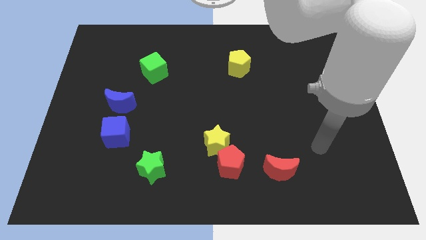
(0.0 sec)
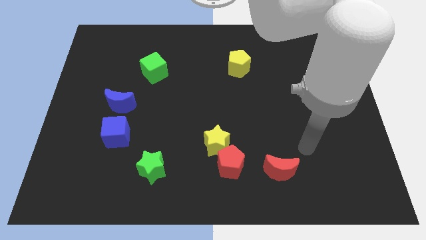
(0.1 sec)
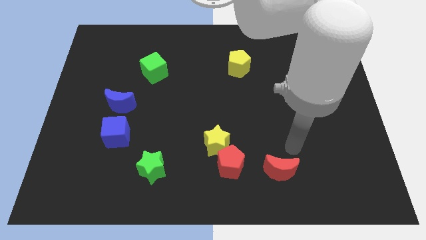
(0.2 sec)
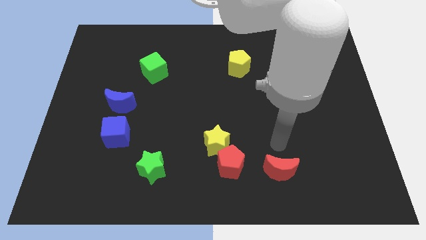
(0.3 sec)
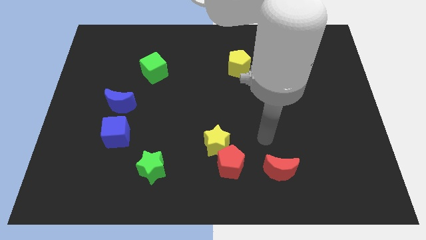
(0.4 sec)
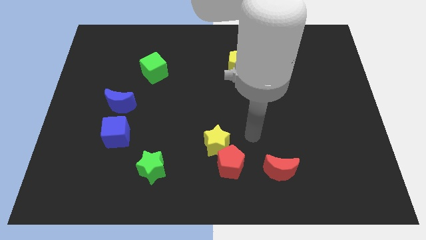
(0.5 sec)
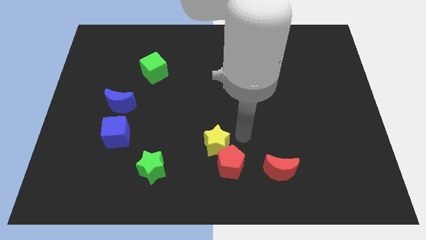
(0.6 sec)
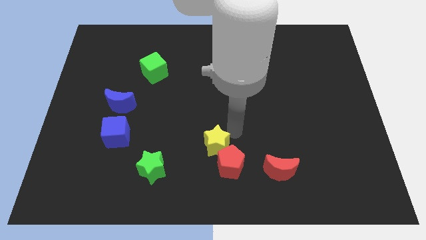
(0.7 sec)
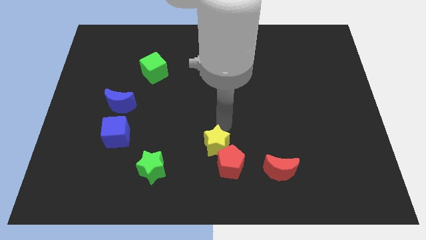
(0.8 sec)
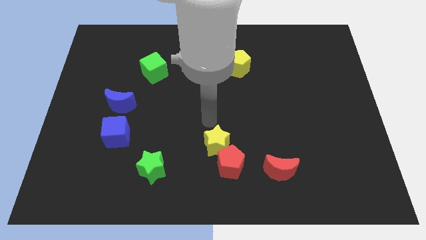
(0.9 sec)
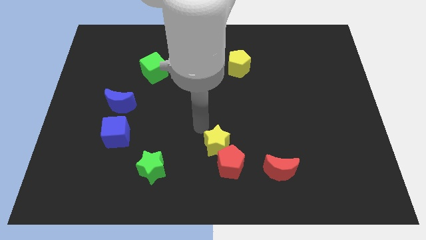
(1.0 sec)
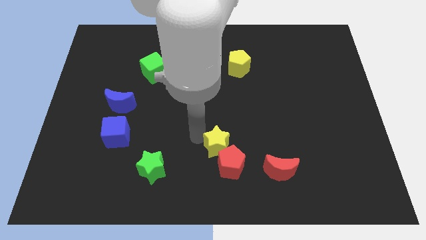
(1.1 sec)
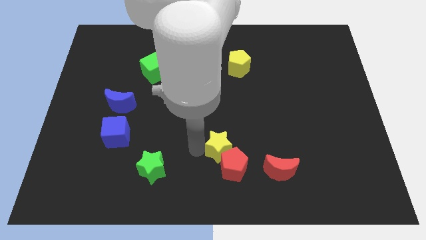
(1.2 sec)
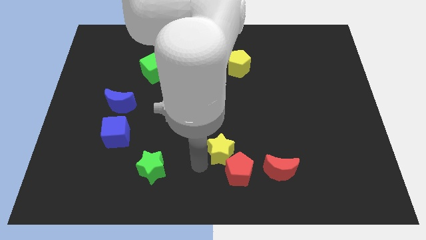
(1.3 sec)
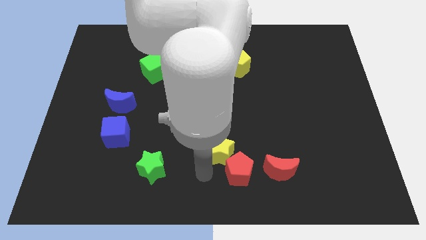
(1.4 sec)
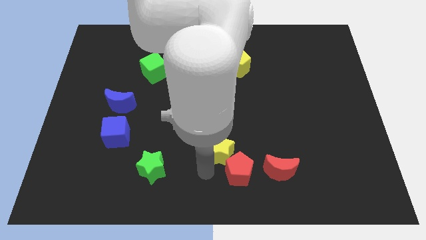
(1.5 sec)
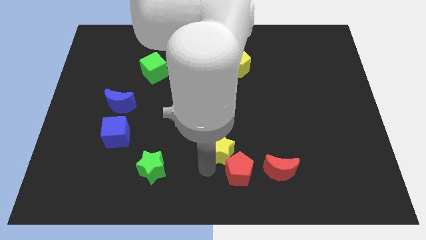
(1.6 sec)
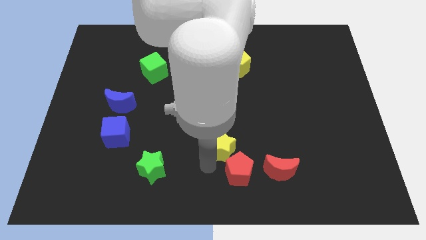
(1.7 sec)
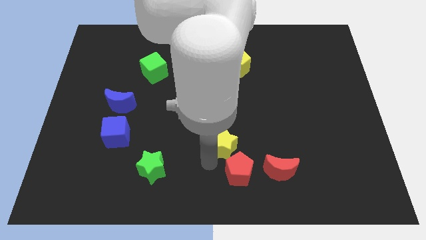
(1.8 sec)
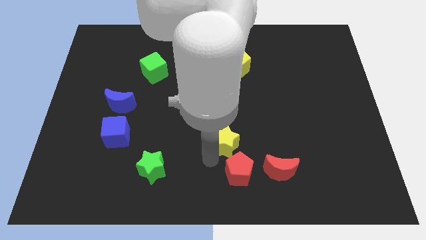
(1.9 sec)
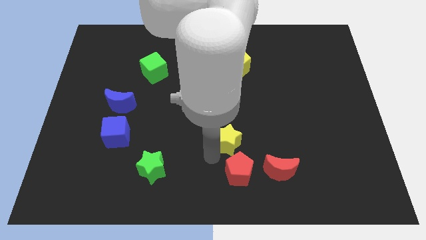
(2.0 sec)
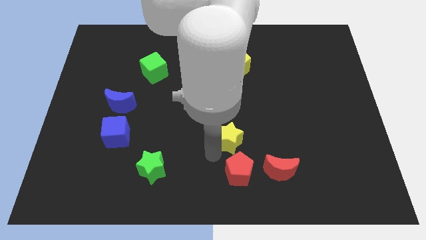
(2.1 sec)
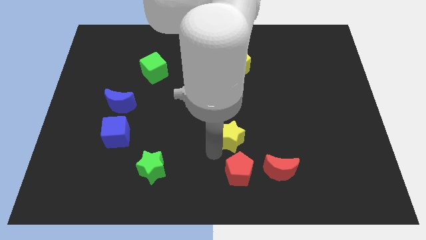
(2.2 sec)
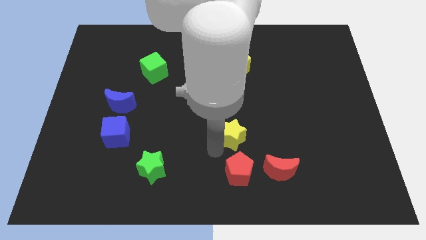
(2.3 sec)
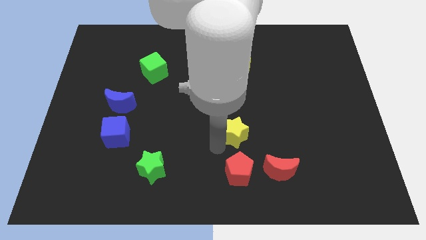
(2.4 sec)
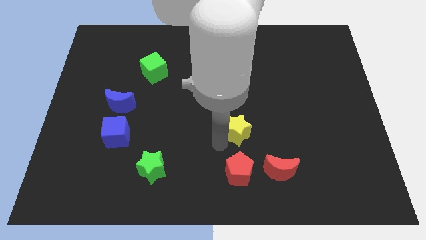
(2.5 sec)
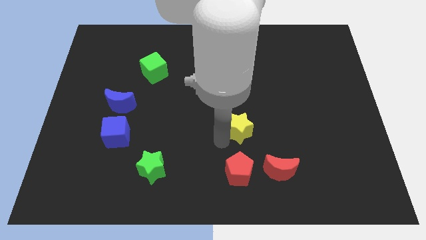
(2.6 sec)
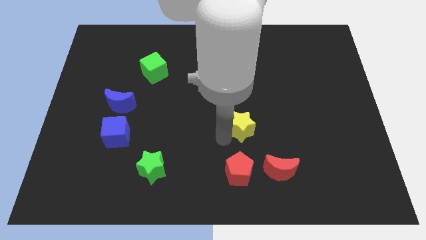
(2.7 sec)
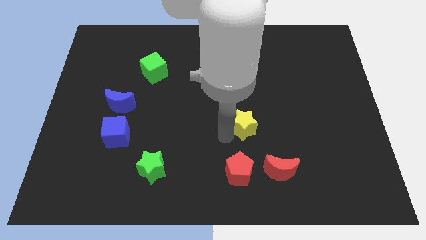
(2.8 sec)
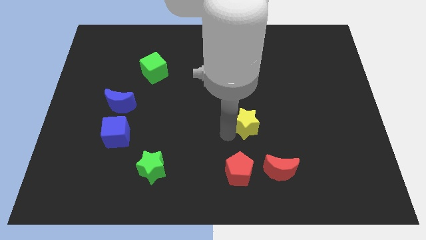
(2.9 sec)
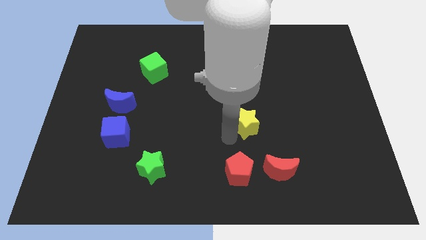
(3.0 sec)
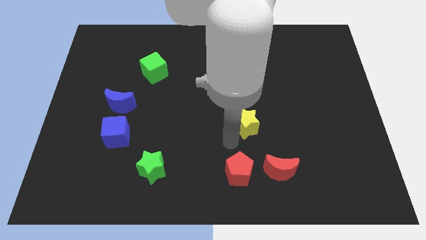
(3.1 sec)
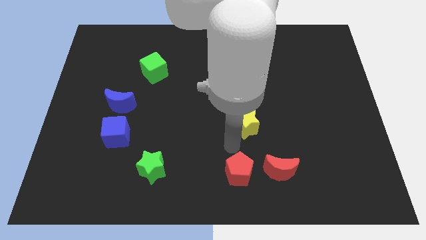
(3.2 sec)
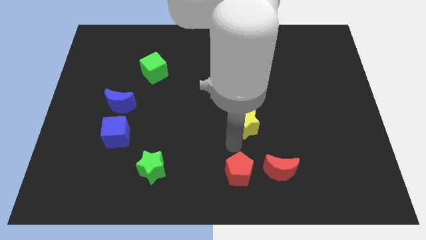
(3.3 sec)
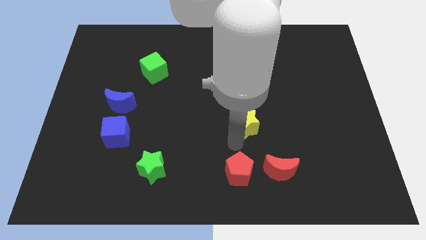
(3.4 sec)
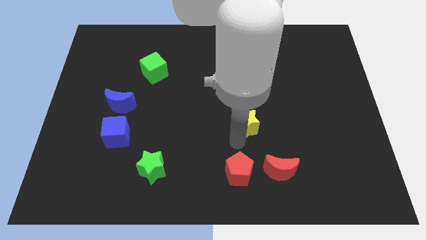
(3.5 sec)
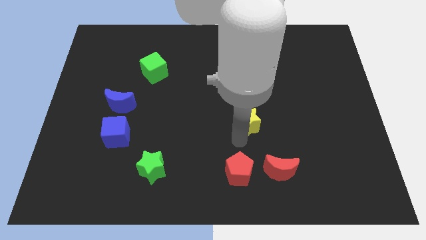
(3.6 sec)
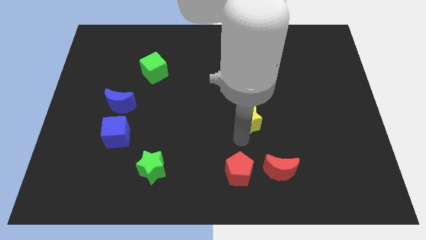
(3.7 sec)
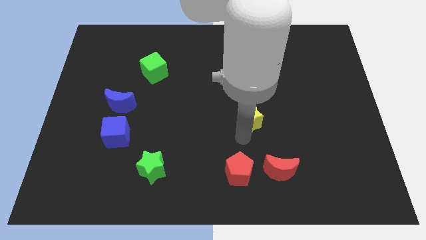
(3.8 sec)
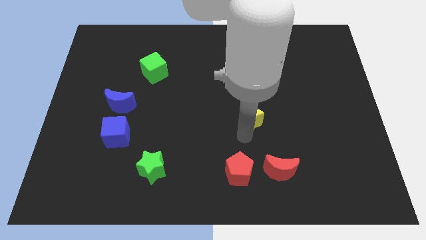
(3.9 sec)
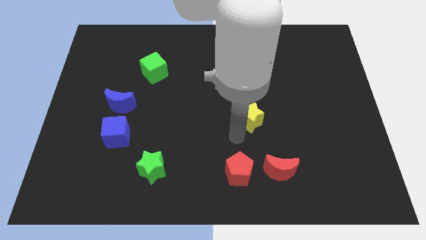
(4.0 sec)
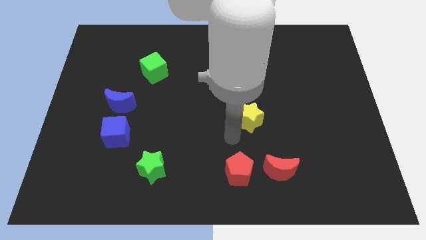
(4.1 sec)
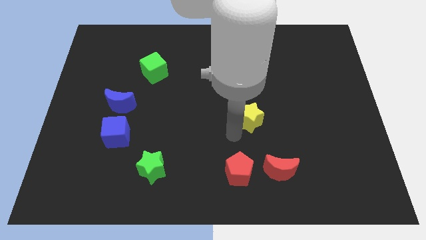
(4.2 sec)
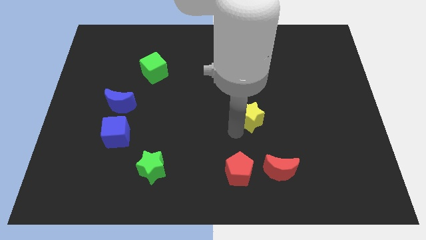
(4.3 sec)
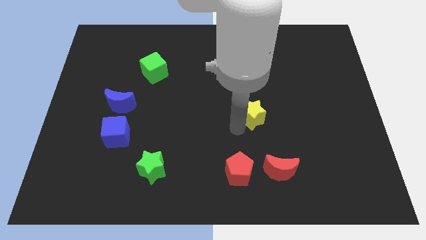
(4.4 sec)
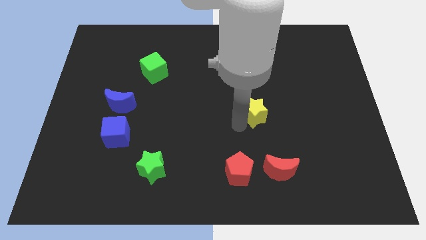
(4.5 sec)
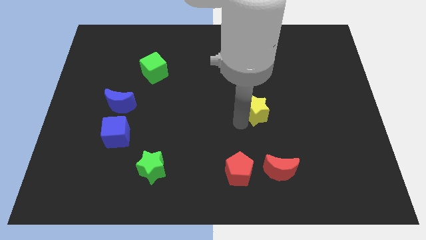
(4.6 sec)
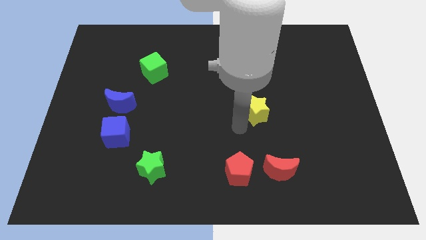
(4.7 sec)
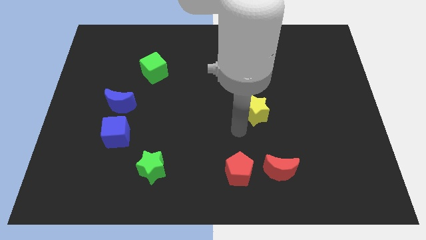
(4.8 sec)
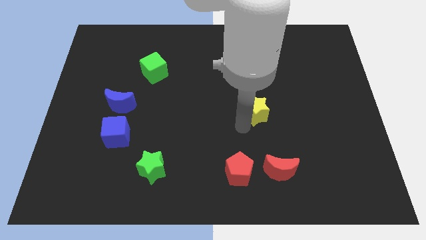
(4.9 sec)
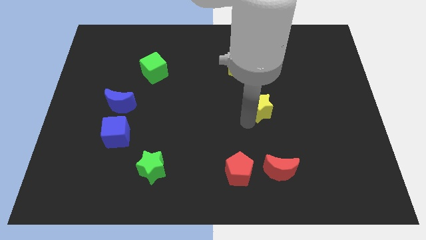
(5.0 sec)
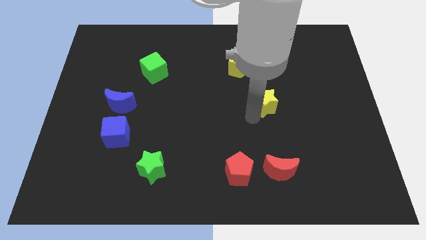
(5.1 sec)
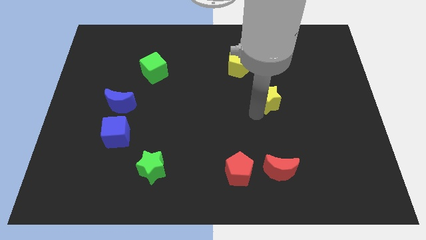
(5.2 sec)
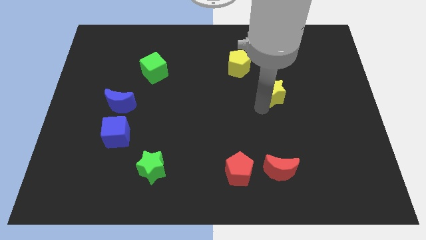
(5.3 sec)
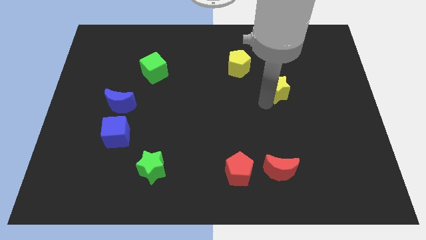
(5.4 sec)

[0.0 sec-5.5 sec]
slide the yellow star up and right diagonally

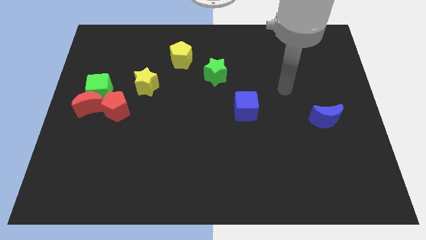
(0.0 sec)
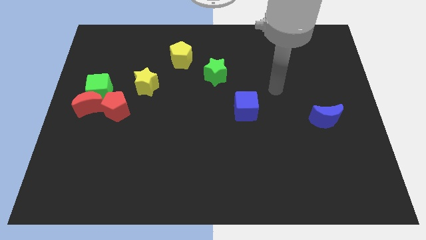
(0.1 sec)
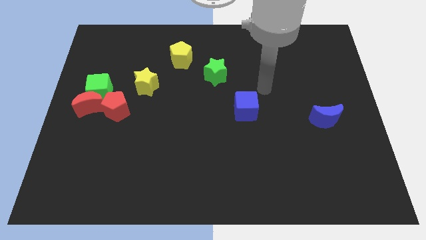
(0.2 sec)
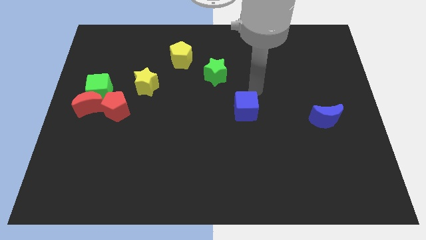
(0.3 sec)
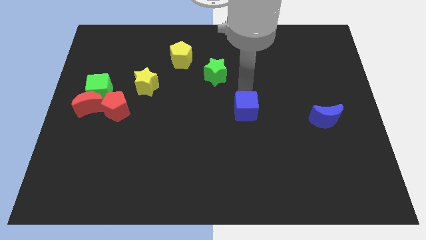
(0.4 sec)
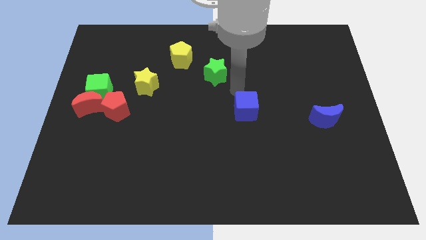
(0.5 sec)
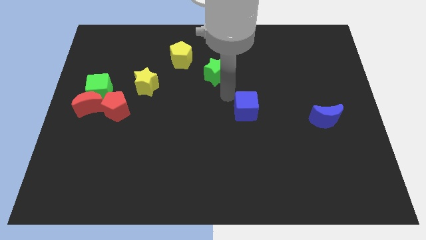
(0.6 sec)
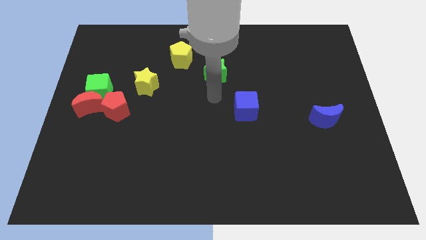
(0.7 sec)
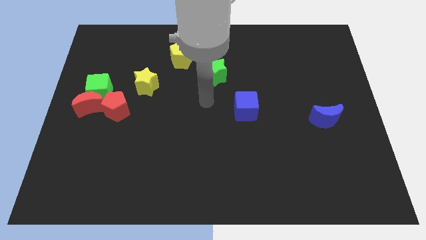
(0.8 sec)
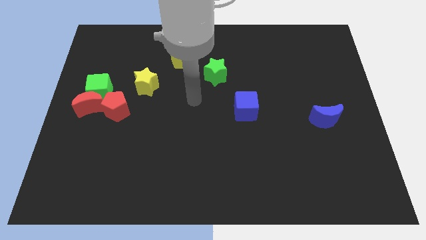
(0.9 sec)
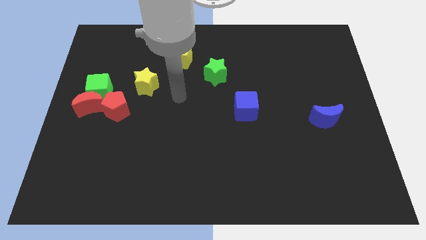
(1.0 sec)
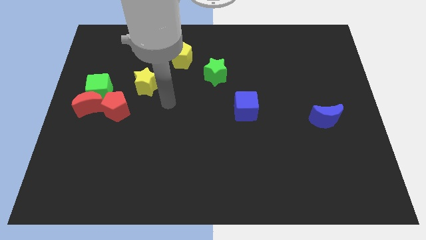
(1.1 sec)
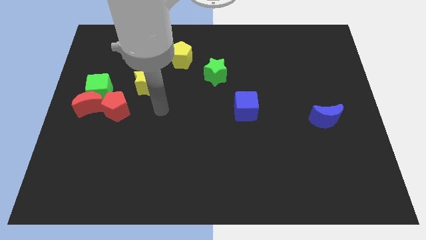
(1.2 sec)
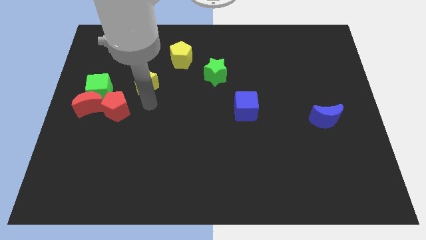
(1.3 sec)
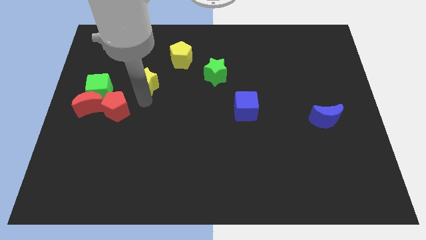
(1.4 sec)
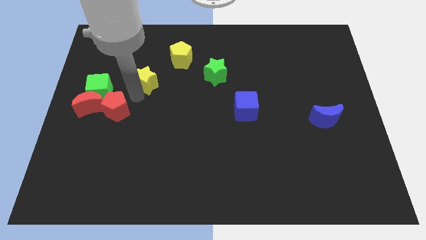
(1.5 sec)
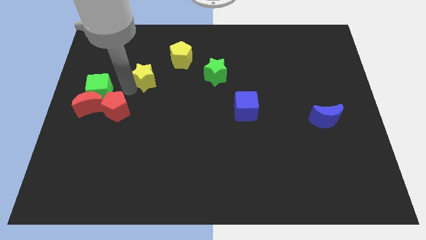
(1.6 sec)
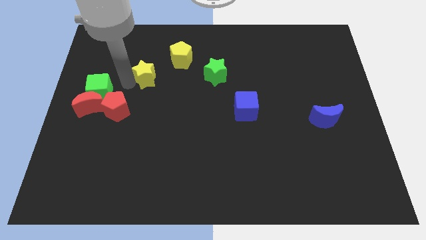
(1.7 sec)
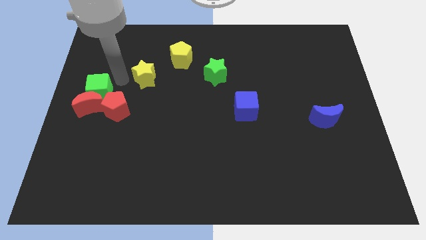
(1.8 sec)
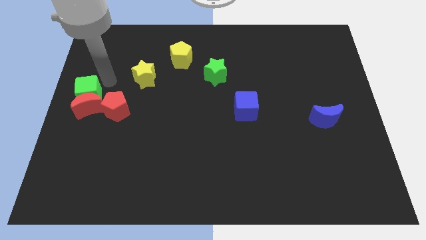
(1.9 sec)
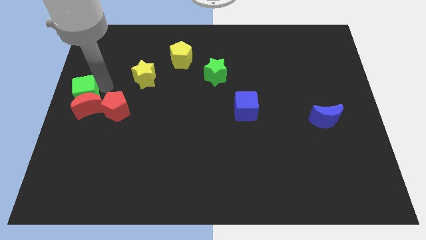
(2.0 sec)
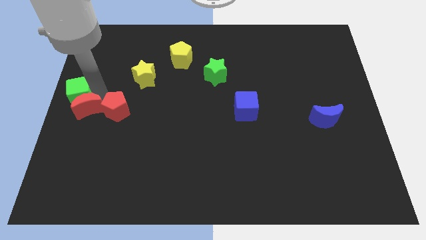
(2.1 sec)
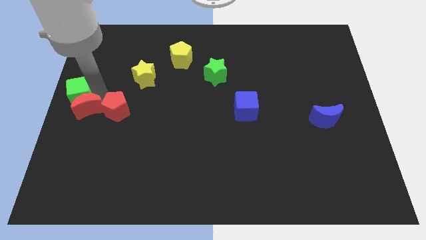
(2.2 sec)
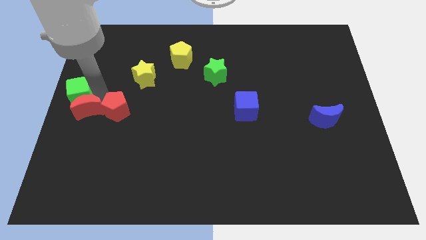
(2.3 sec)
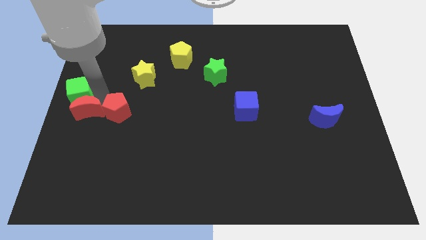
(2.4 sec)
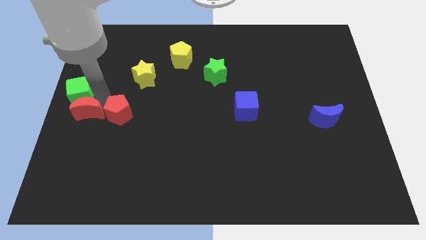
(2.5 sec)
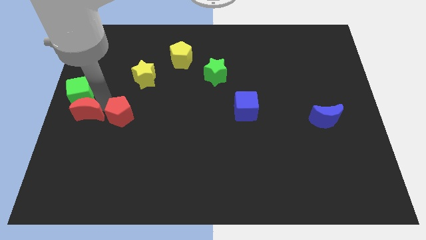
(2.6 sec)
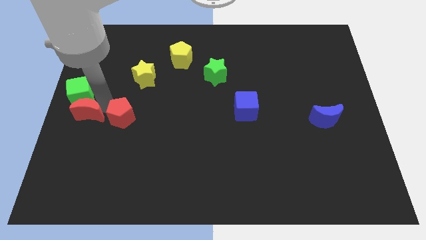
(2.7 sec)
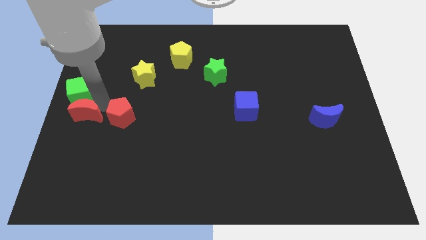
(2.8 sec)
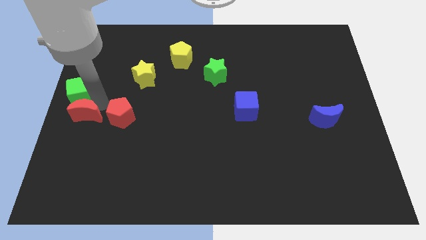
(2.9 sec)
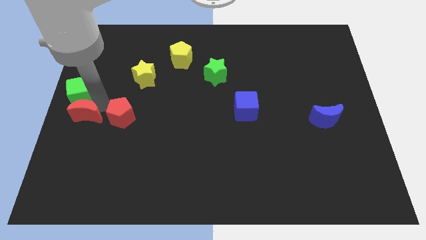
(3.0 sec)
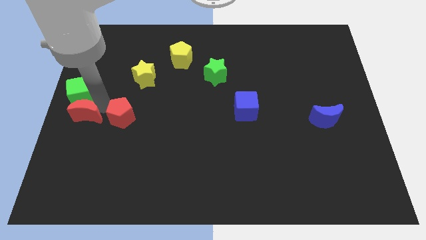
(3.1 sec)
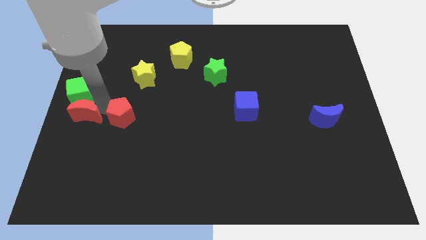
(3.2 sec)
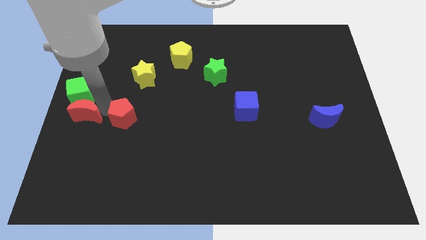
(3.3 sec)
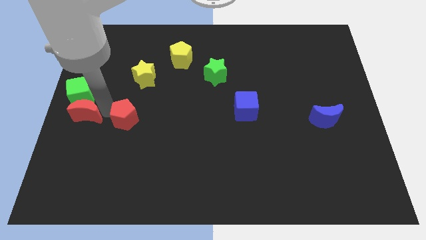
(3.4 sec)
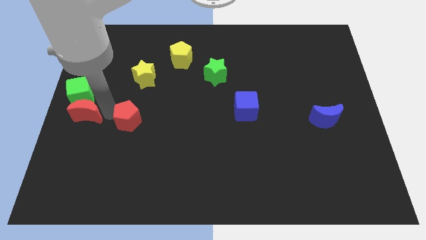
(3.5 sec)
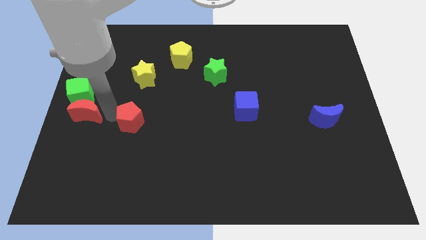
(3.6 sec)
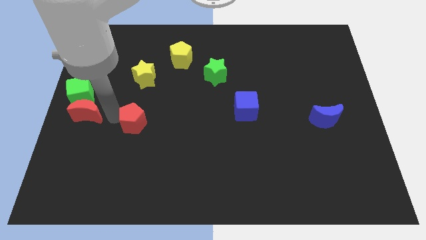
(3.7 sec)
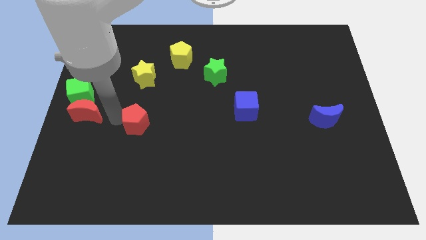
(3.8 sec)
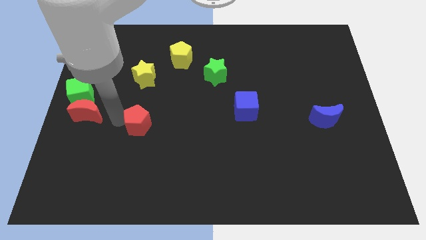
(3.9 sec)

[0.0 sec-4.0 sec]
slide the red pentagon a little diagonally down and to the right
